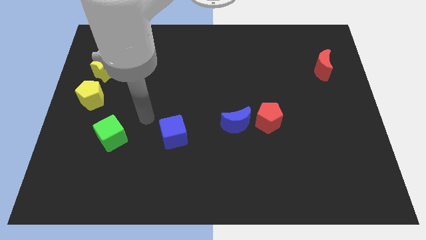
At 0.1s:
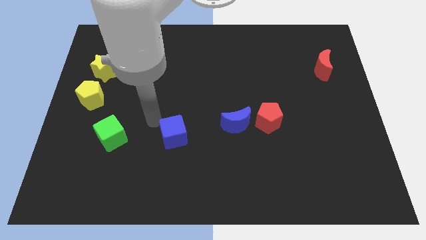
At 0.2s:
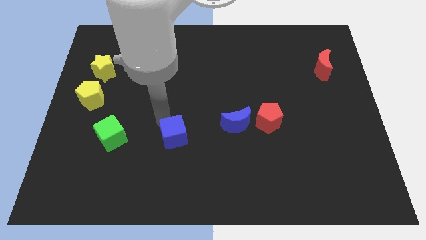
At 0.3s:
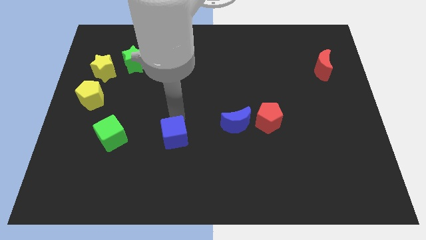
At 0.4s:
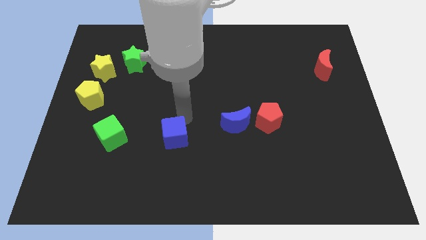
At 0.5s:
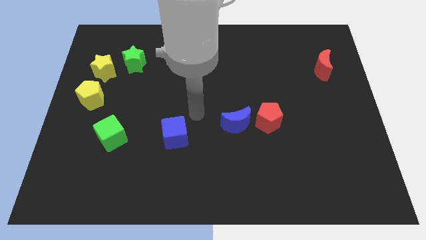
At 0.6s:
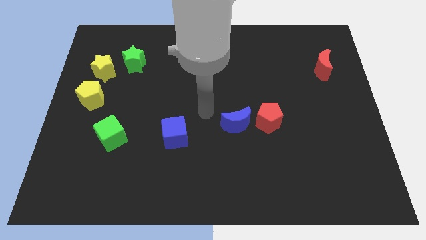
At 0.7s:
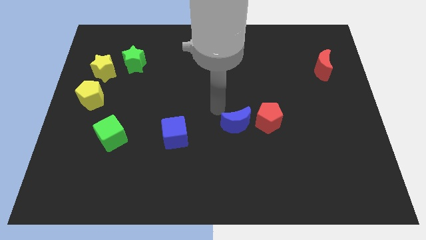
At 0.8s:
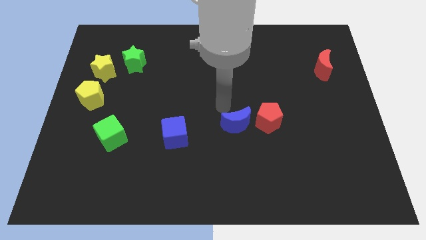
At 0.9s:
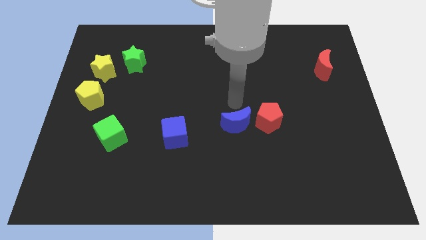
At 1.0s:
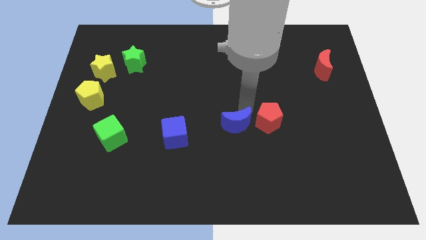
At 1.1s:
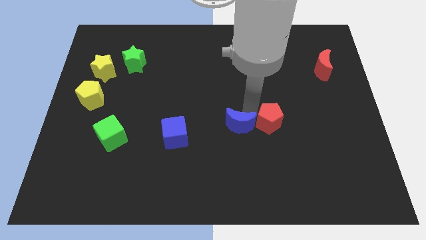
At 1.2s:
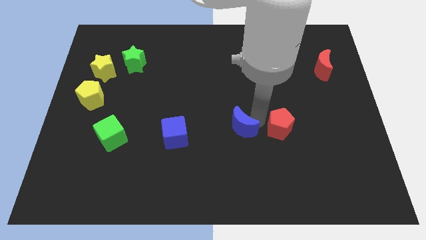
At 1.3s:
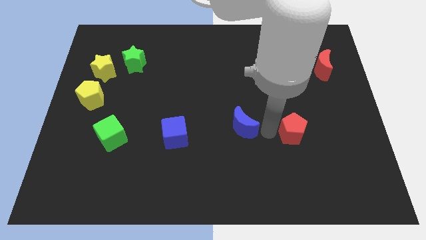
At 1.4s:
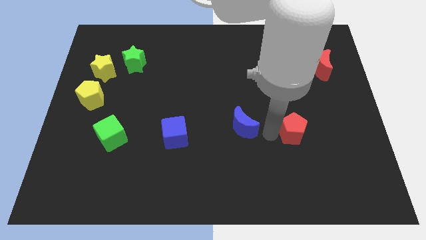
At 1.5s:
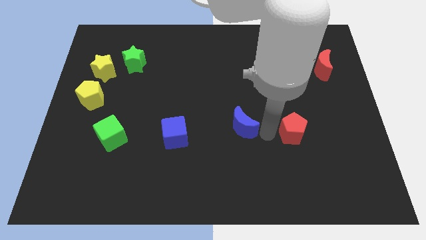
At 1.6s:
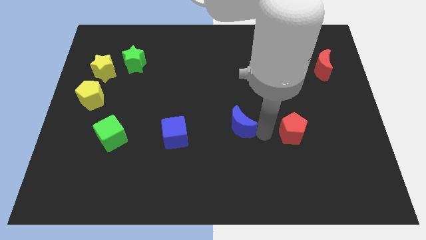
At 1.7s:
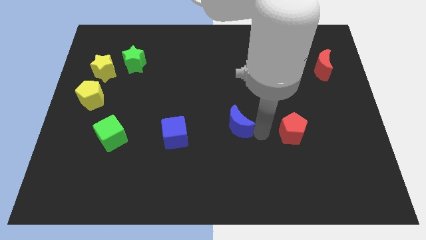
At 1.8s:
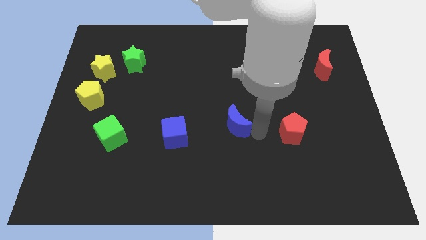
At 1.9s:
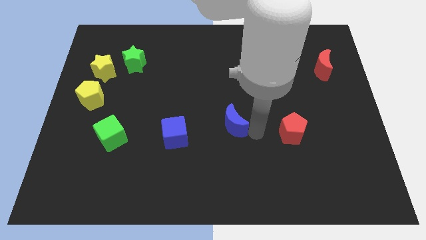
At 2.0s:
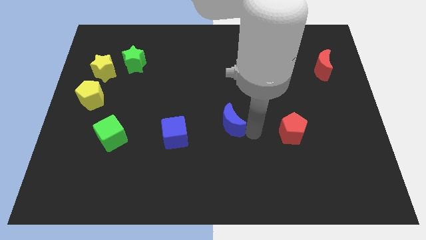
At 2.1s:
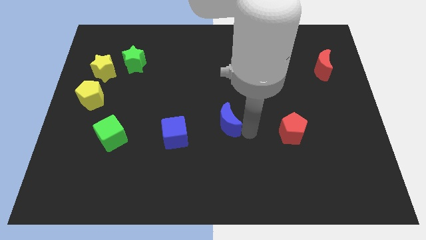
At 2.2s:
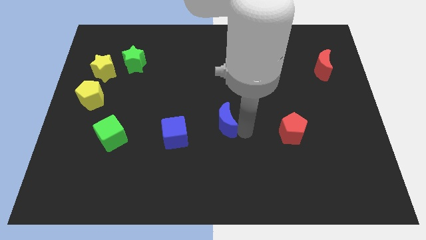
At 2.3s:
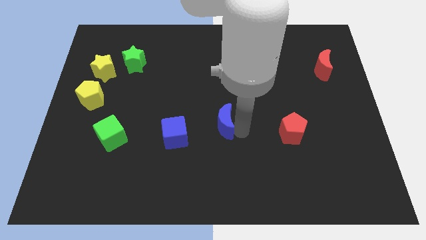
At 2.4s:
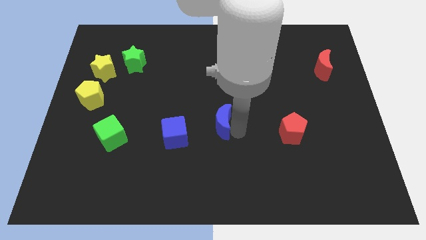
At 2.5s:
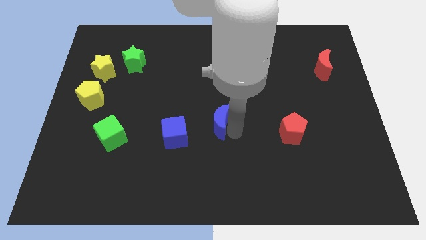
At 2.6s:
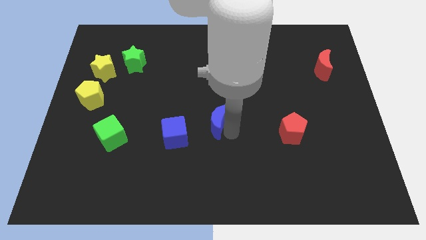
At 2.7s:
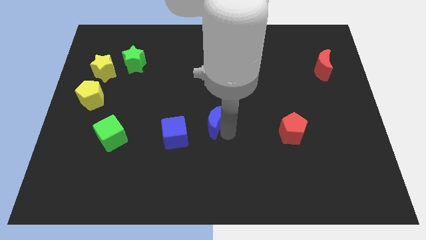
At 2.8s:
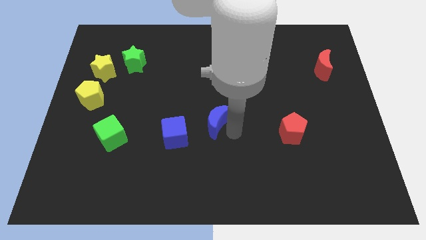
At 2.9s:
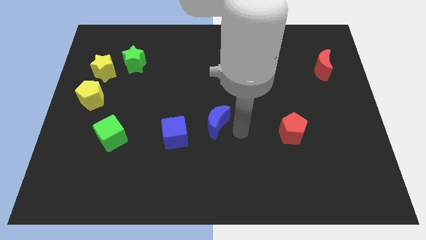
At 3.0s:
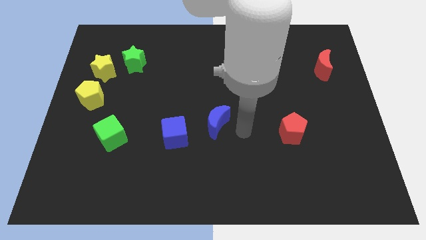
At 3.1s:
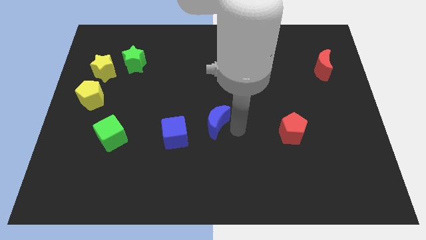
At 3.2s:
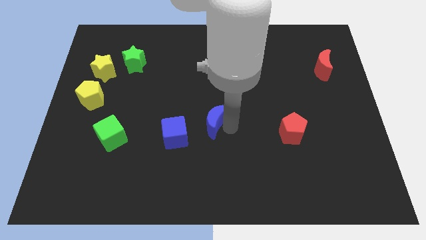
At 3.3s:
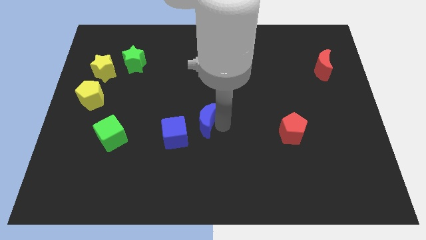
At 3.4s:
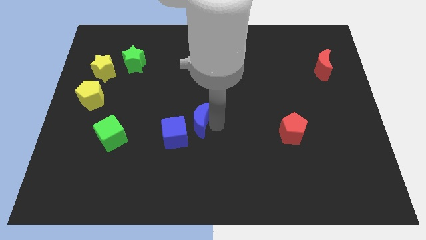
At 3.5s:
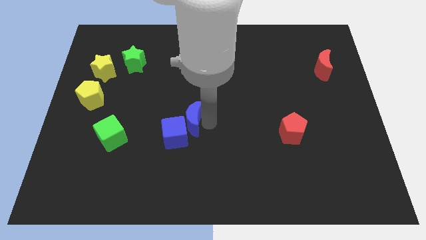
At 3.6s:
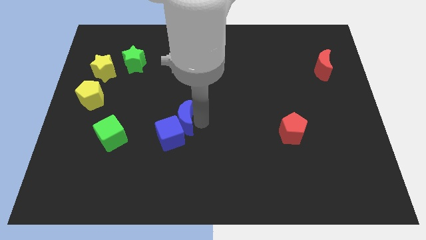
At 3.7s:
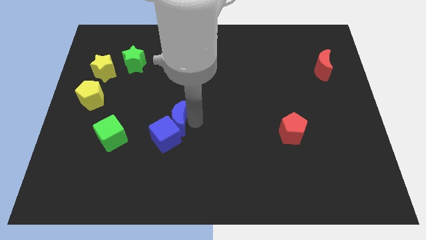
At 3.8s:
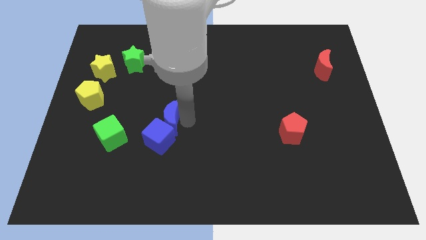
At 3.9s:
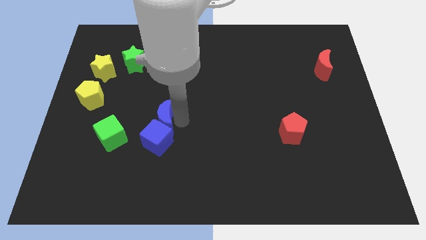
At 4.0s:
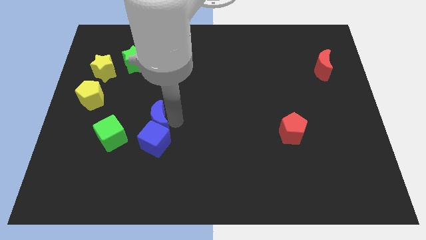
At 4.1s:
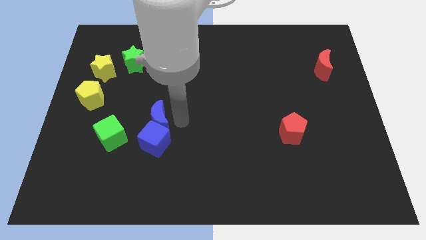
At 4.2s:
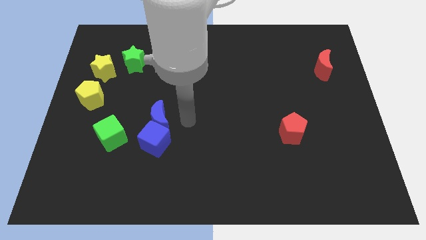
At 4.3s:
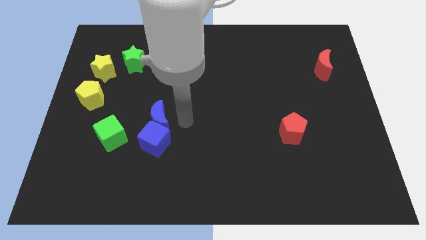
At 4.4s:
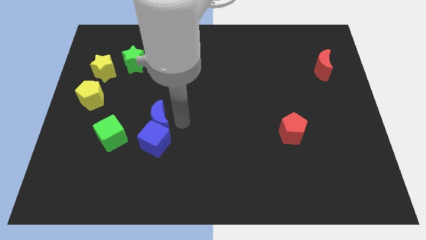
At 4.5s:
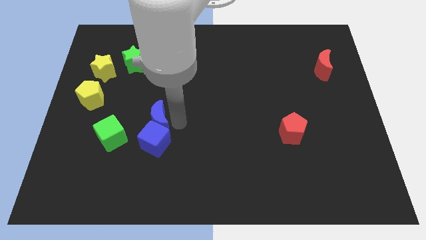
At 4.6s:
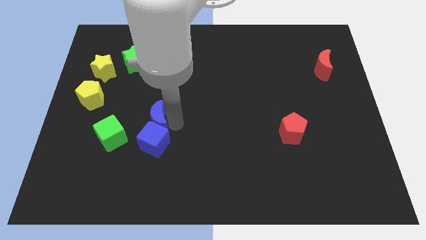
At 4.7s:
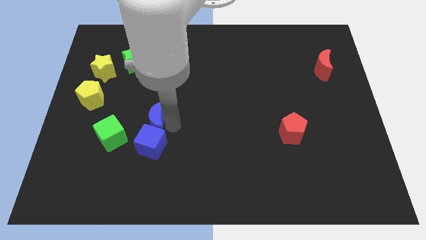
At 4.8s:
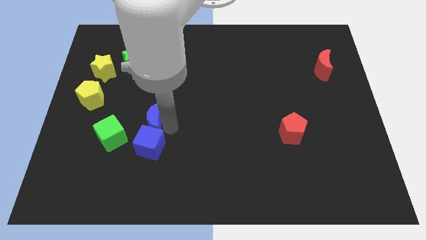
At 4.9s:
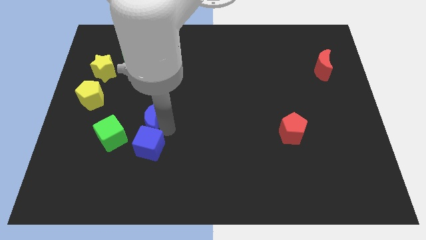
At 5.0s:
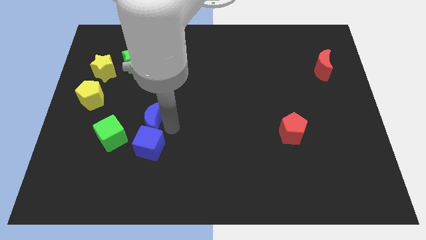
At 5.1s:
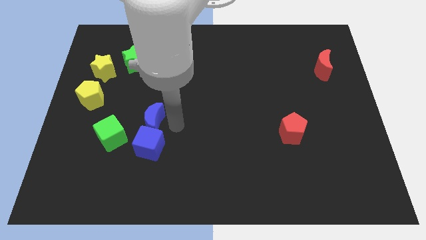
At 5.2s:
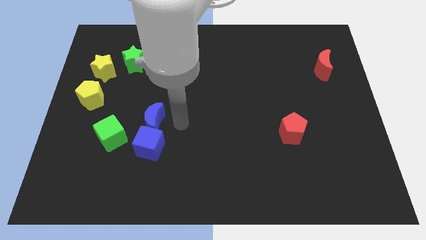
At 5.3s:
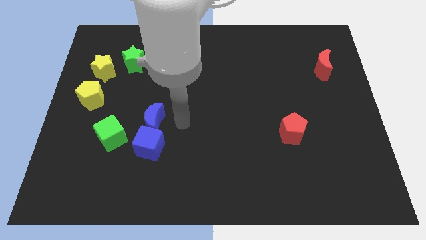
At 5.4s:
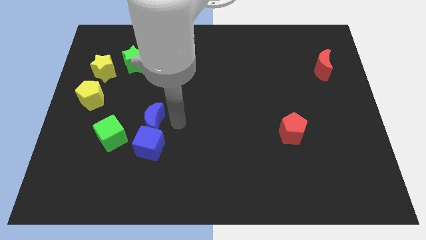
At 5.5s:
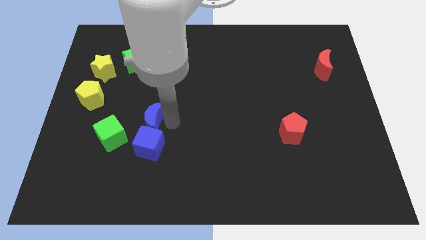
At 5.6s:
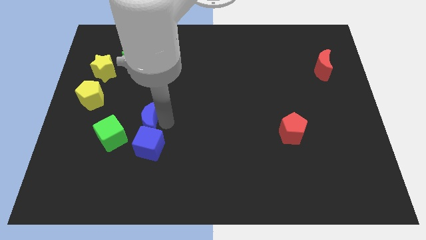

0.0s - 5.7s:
slide the blue moon to the left

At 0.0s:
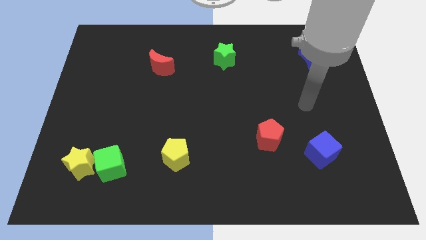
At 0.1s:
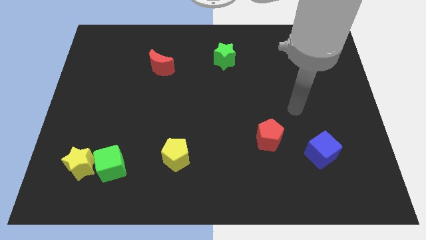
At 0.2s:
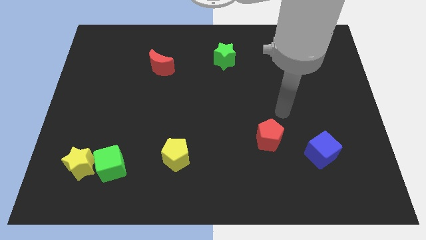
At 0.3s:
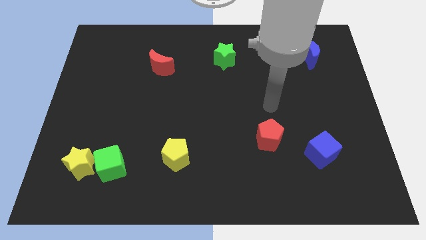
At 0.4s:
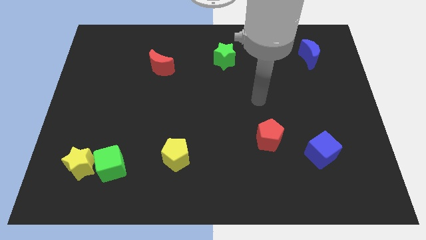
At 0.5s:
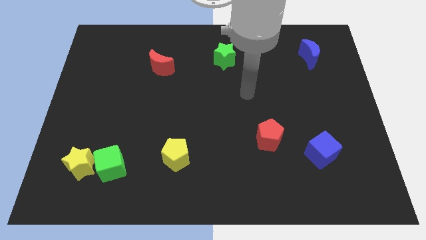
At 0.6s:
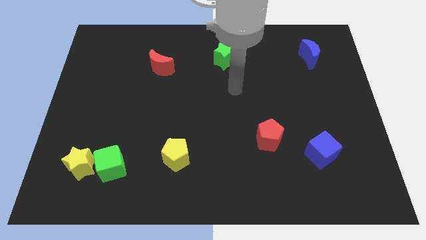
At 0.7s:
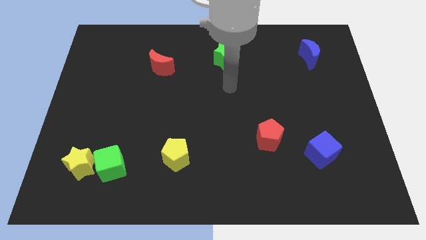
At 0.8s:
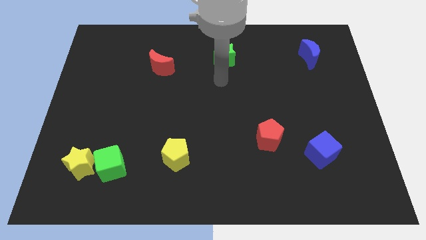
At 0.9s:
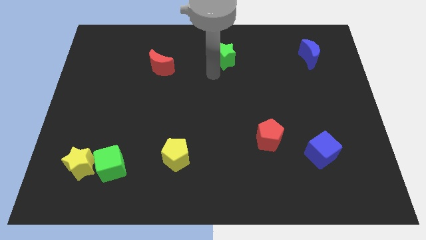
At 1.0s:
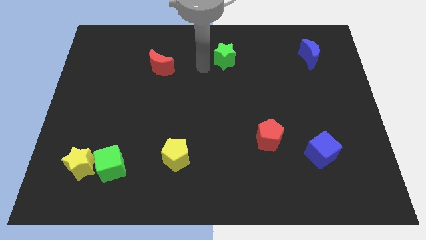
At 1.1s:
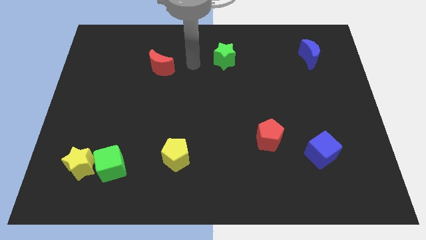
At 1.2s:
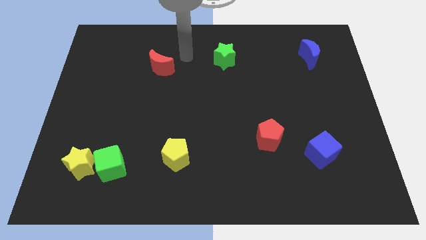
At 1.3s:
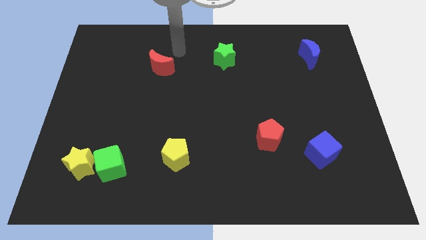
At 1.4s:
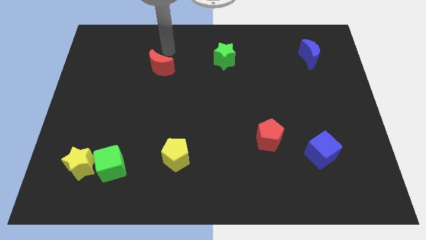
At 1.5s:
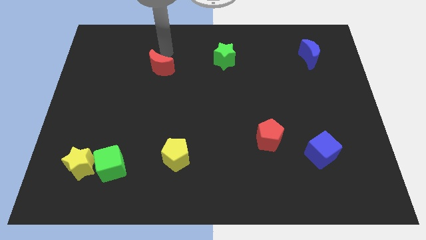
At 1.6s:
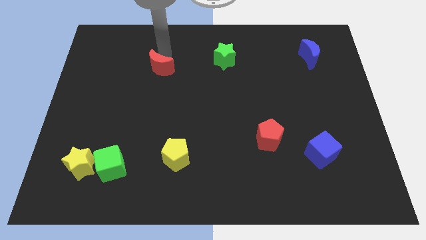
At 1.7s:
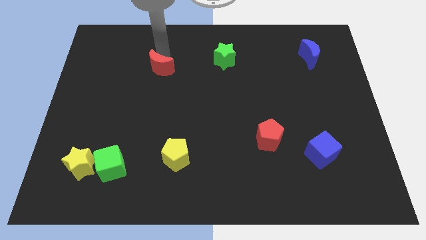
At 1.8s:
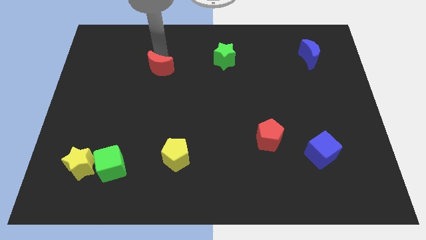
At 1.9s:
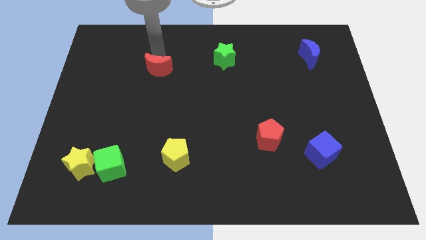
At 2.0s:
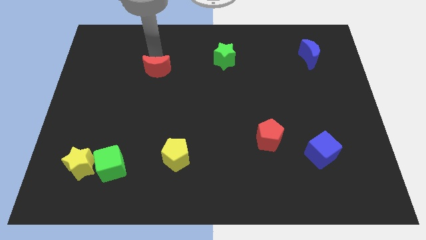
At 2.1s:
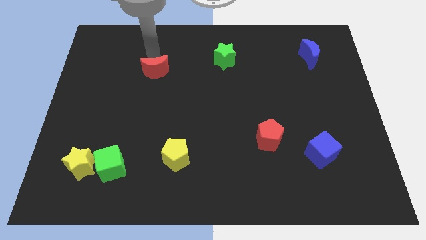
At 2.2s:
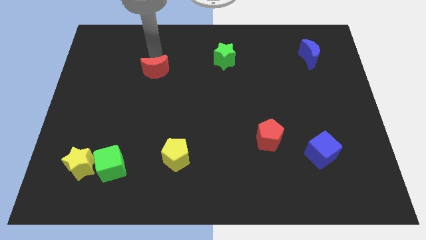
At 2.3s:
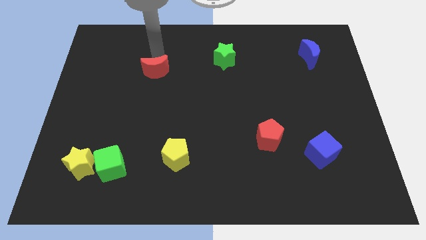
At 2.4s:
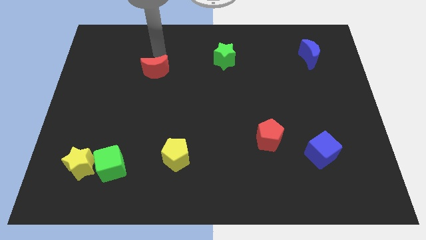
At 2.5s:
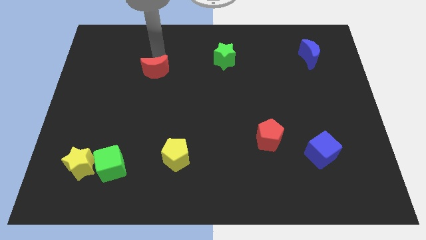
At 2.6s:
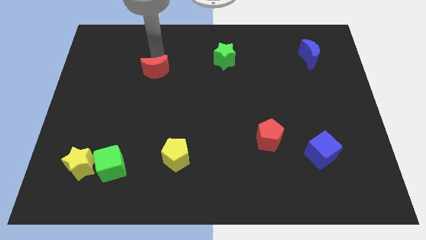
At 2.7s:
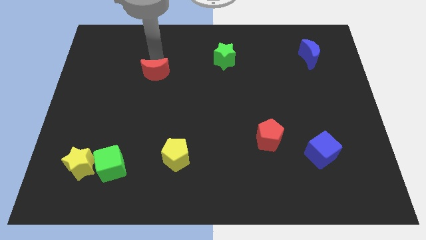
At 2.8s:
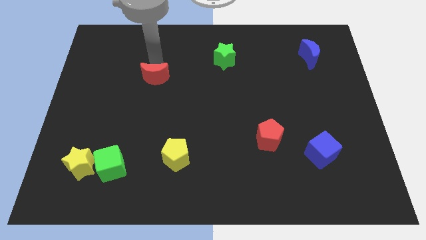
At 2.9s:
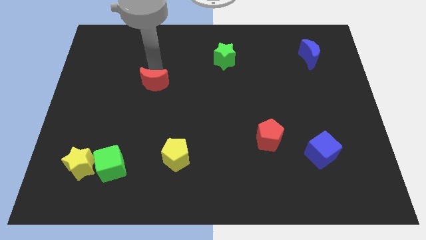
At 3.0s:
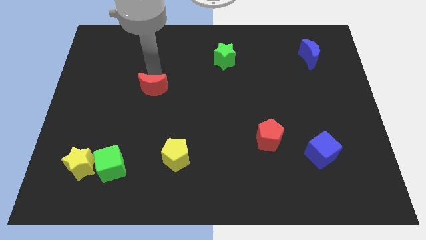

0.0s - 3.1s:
move the red moon slightly downwards
